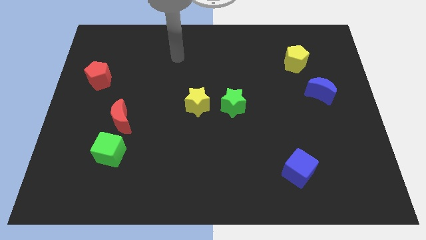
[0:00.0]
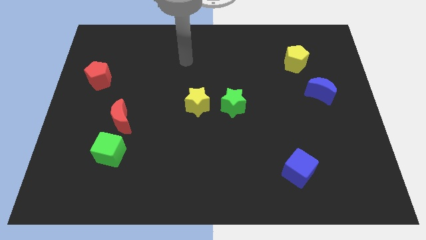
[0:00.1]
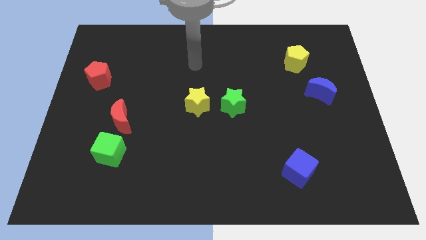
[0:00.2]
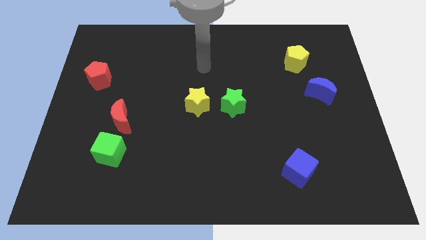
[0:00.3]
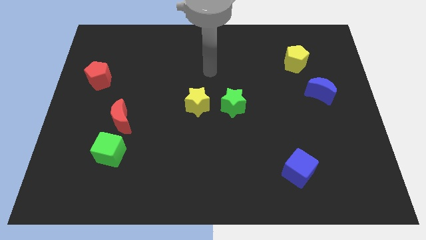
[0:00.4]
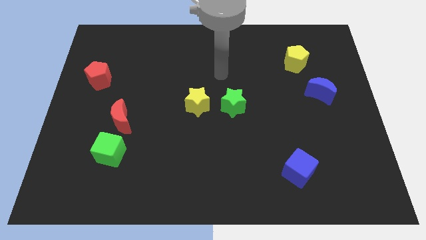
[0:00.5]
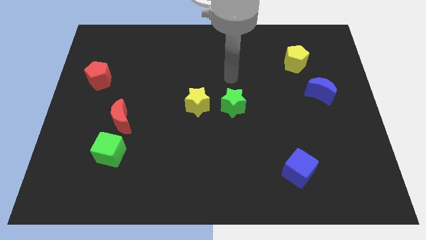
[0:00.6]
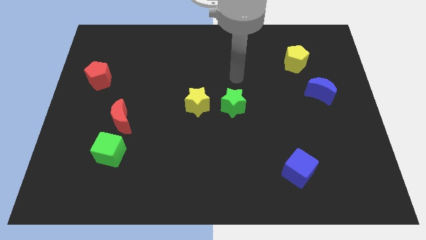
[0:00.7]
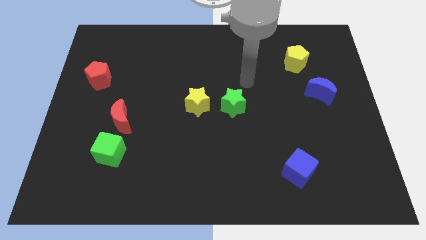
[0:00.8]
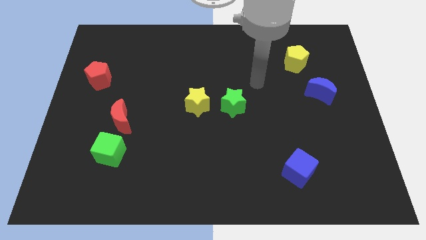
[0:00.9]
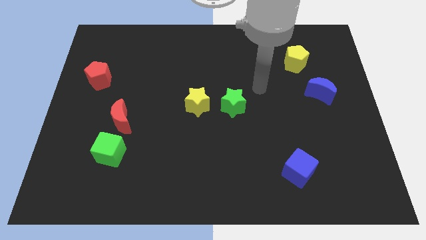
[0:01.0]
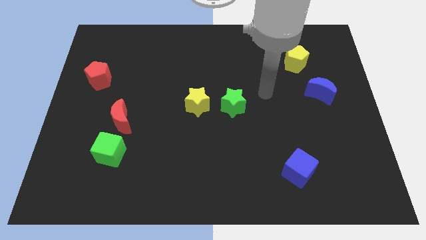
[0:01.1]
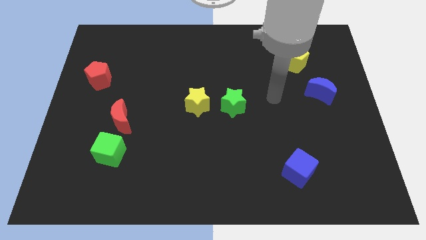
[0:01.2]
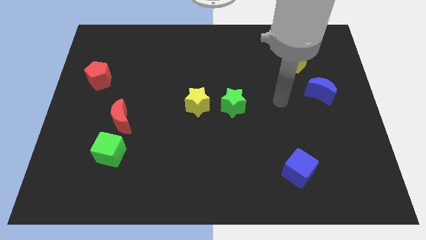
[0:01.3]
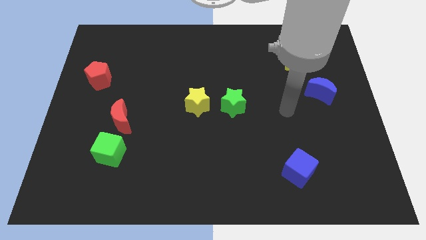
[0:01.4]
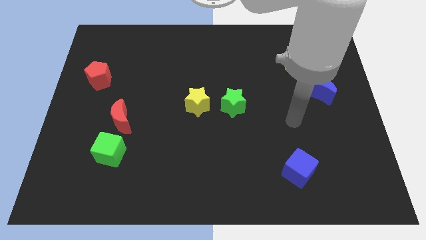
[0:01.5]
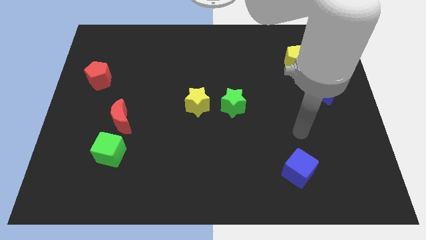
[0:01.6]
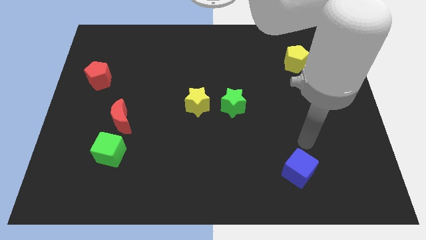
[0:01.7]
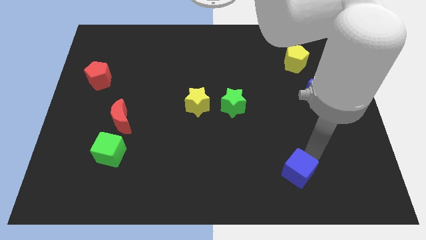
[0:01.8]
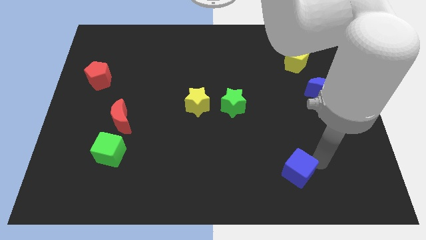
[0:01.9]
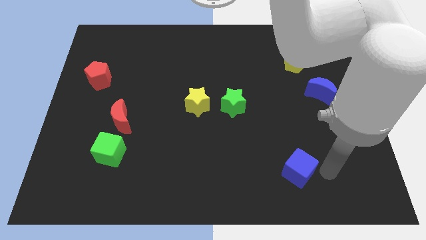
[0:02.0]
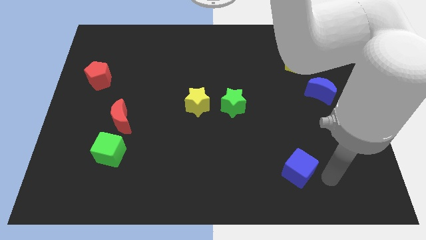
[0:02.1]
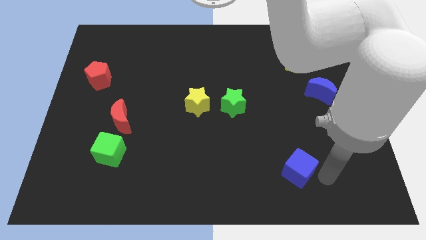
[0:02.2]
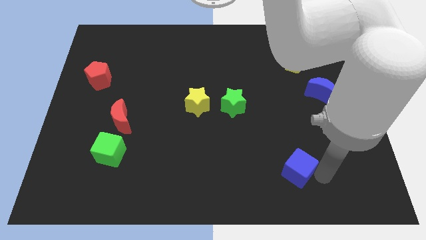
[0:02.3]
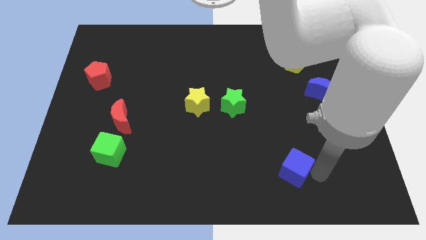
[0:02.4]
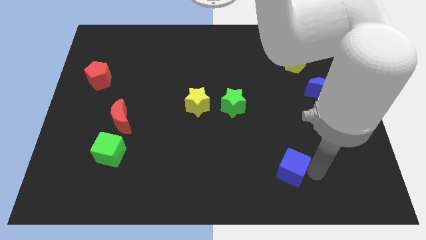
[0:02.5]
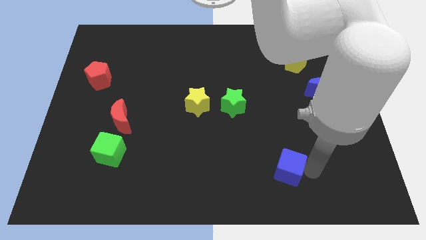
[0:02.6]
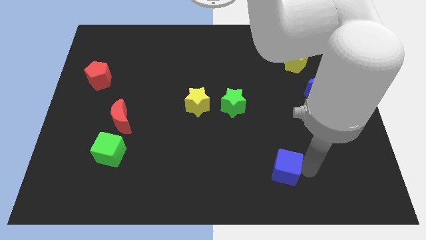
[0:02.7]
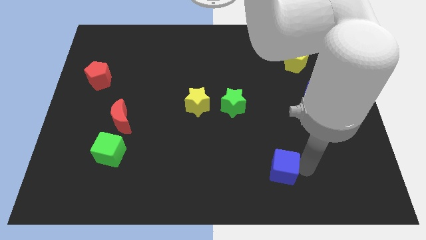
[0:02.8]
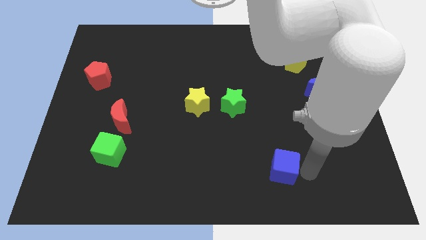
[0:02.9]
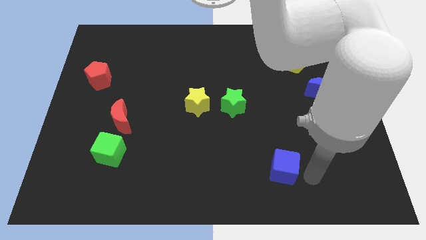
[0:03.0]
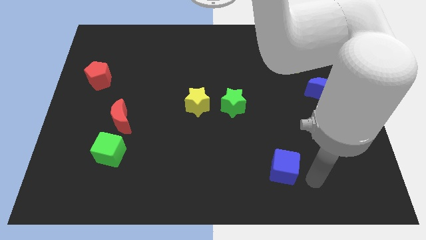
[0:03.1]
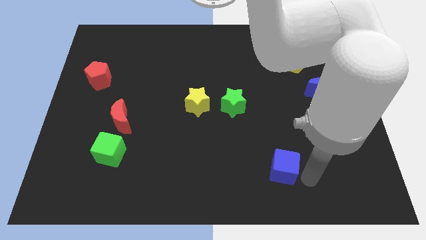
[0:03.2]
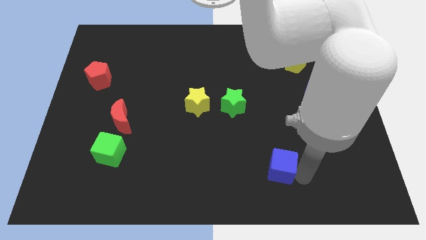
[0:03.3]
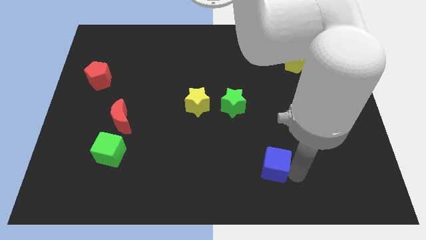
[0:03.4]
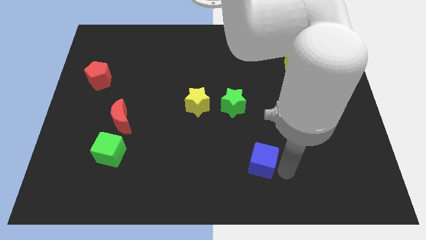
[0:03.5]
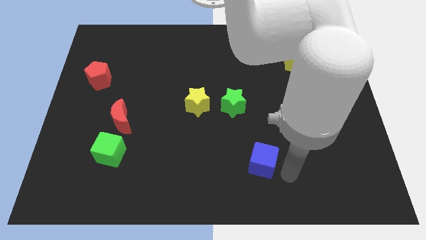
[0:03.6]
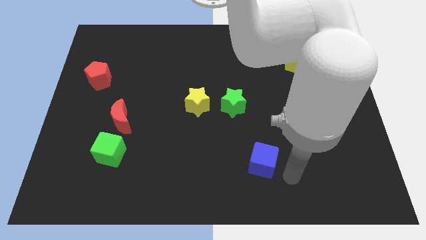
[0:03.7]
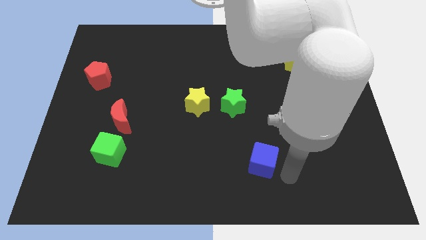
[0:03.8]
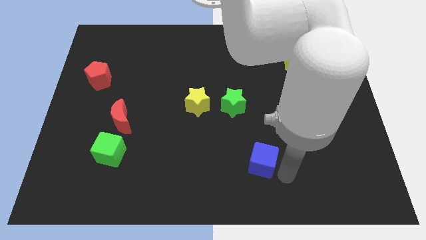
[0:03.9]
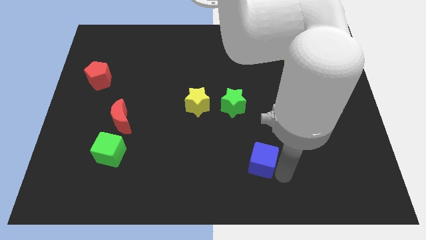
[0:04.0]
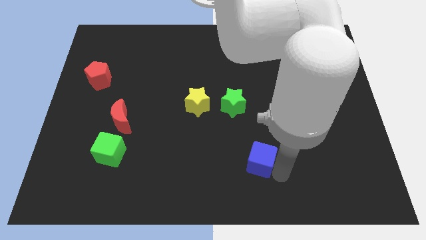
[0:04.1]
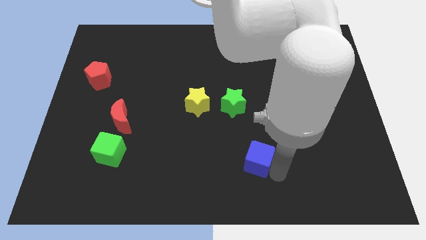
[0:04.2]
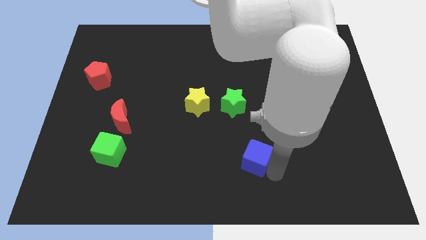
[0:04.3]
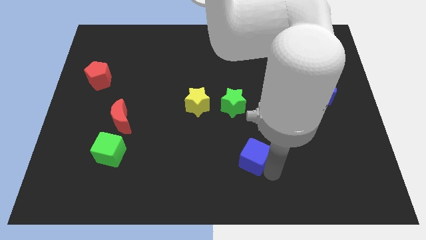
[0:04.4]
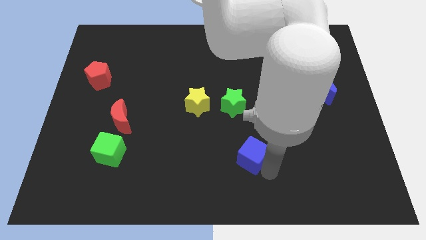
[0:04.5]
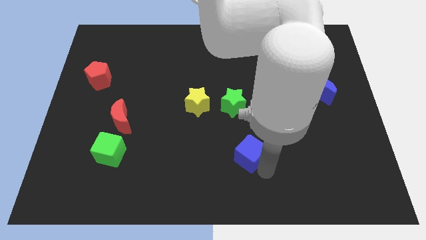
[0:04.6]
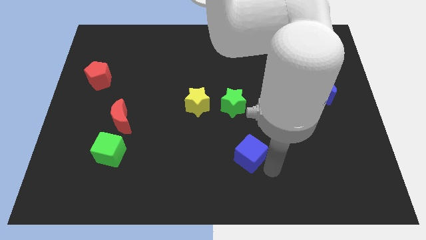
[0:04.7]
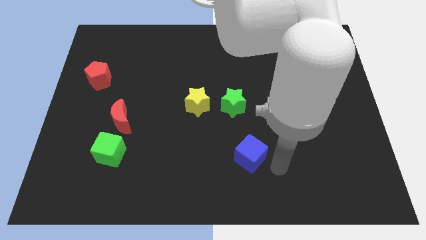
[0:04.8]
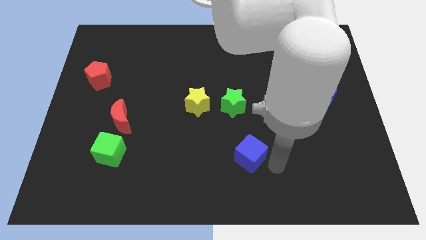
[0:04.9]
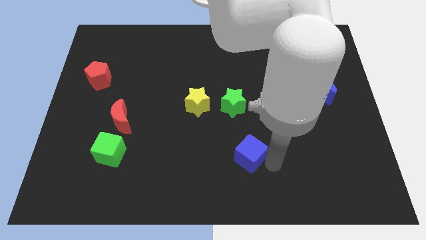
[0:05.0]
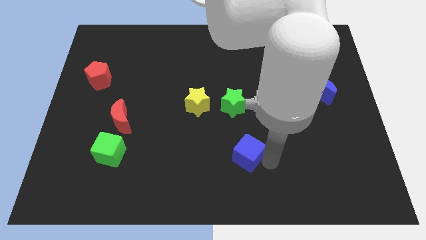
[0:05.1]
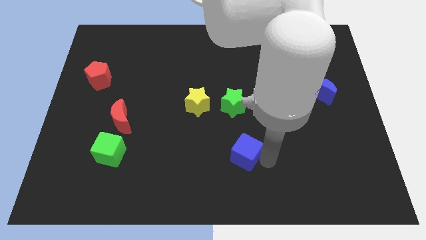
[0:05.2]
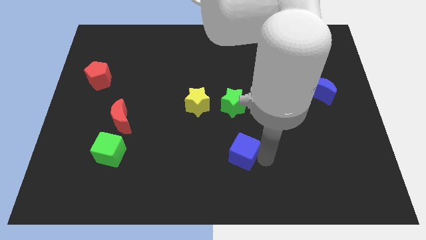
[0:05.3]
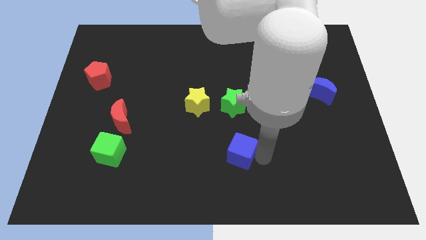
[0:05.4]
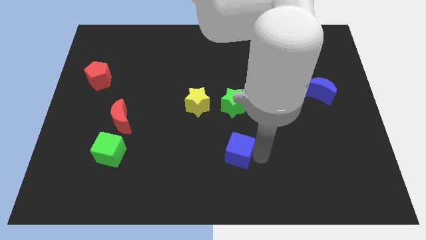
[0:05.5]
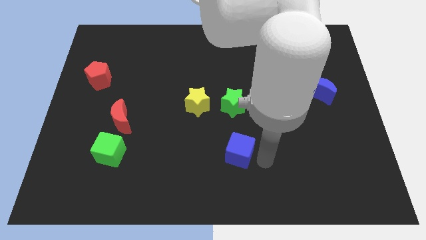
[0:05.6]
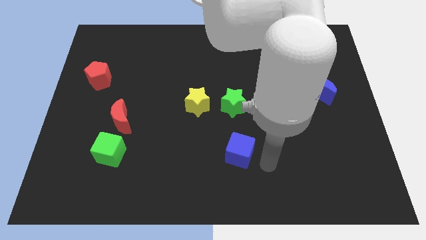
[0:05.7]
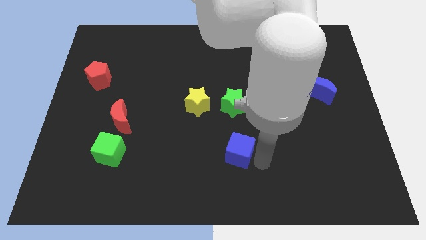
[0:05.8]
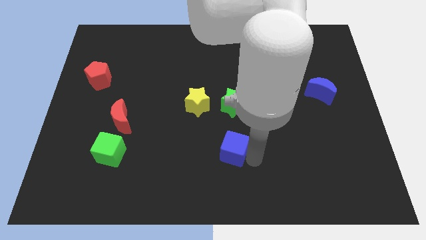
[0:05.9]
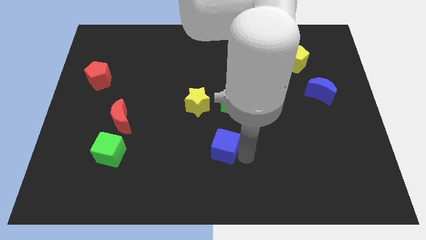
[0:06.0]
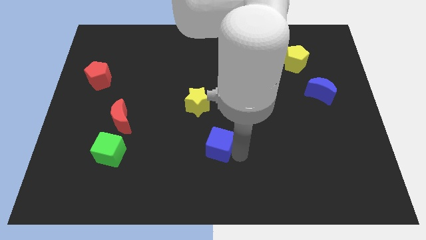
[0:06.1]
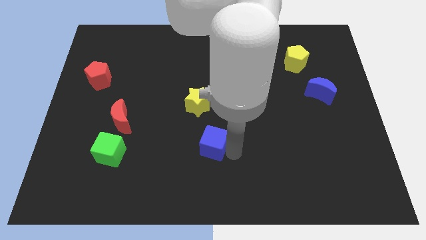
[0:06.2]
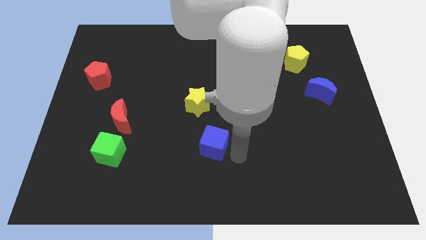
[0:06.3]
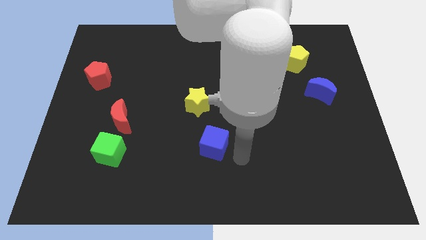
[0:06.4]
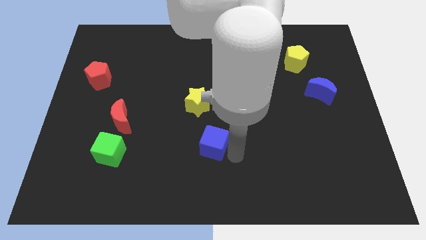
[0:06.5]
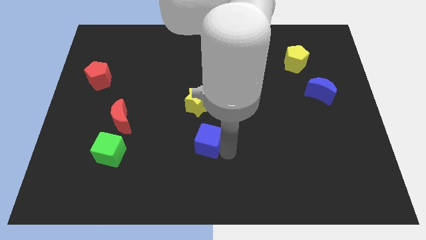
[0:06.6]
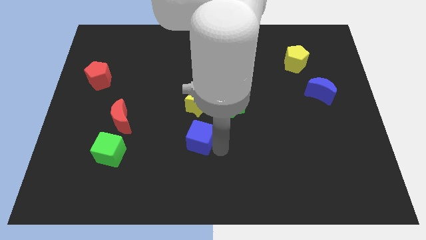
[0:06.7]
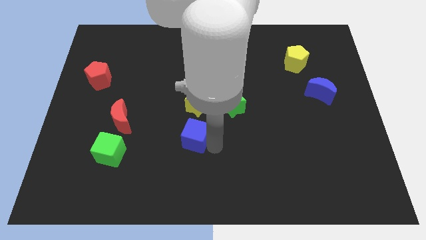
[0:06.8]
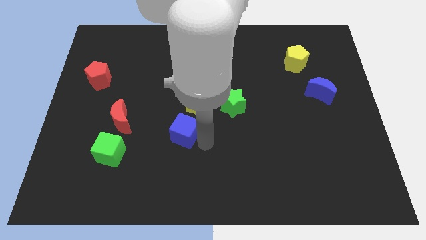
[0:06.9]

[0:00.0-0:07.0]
slide the blue cube right of the red moon

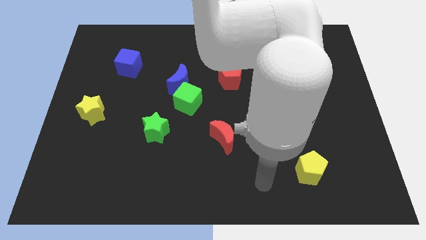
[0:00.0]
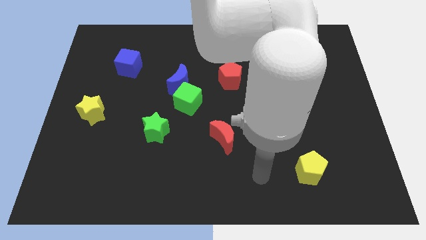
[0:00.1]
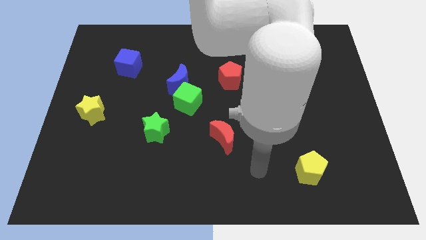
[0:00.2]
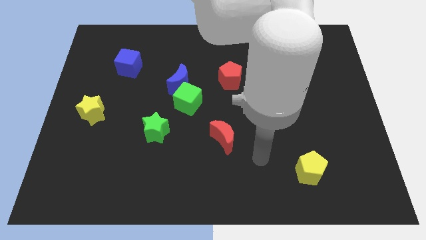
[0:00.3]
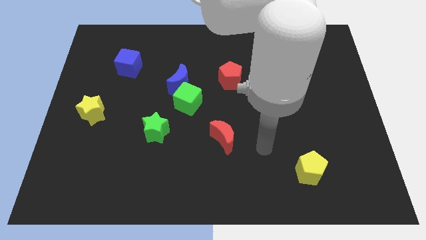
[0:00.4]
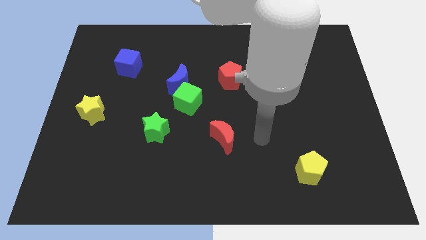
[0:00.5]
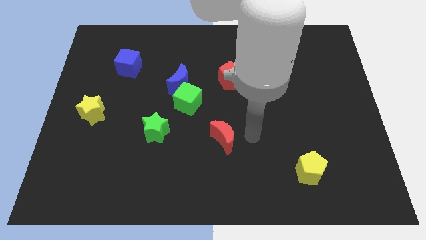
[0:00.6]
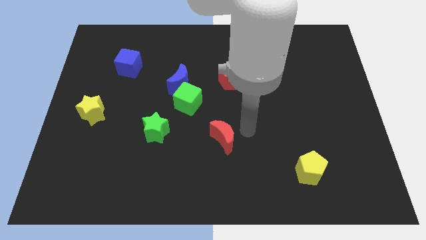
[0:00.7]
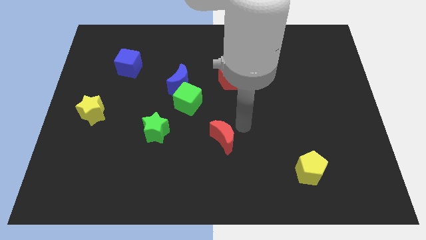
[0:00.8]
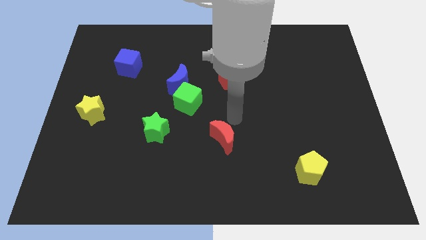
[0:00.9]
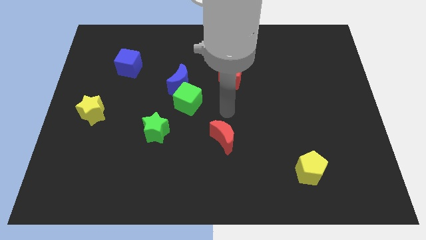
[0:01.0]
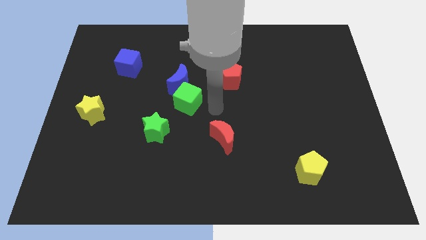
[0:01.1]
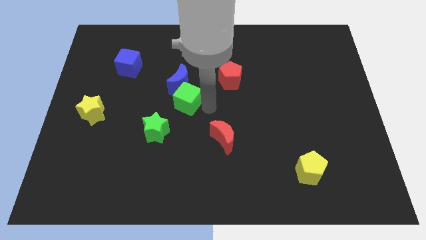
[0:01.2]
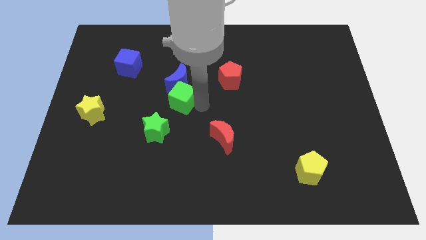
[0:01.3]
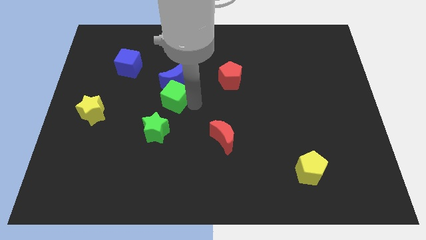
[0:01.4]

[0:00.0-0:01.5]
put the green cube to the top side of the green star
